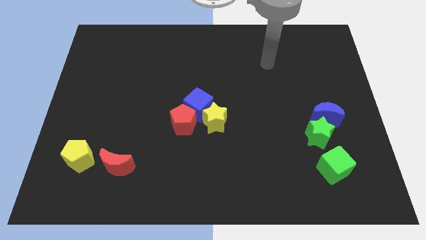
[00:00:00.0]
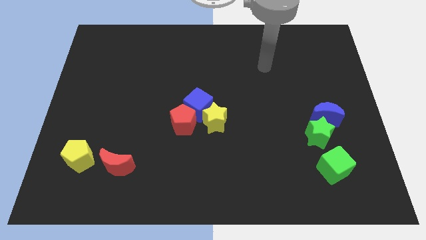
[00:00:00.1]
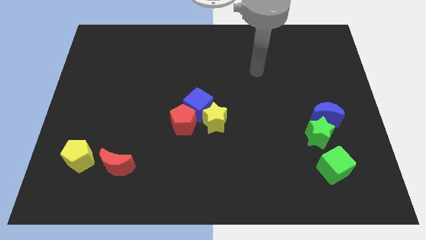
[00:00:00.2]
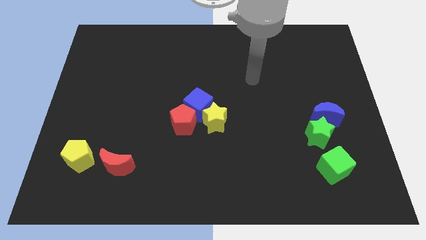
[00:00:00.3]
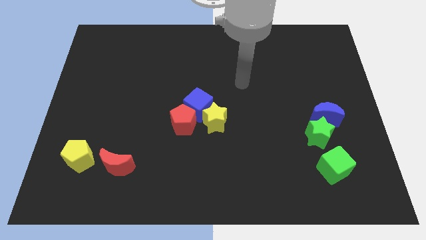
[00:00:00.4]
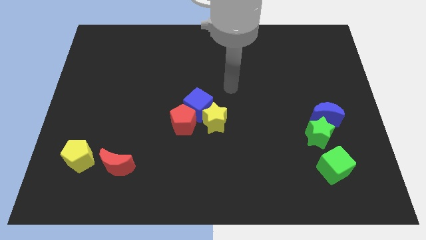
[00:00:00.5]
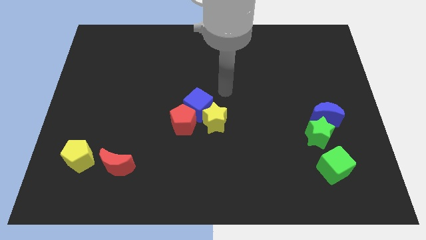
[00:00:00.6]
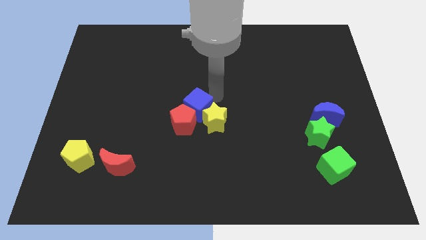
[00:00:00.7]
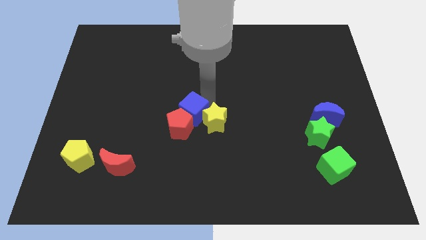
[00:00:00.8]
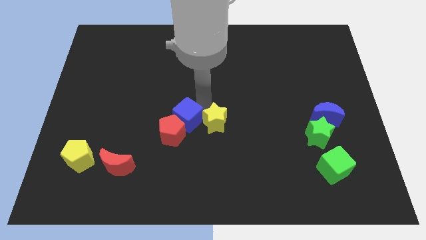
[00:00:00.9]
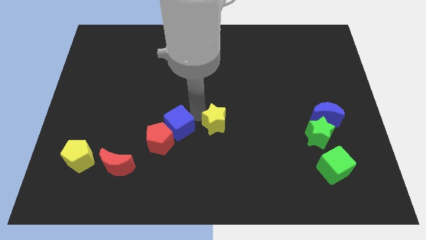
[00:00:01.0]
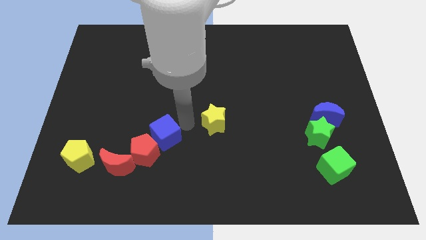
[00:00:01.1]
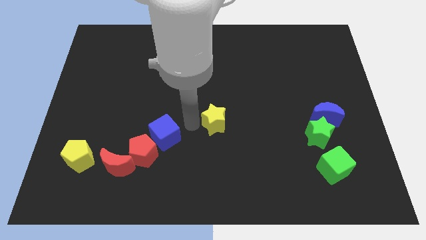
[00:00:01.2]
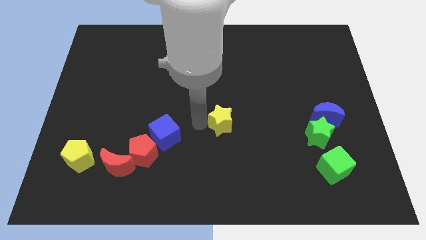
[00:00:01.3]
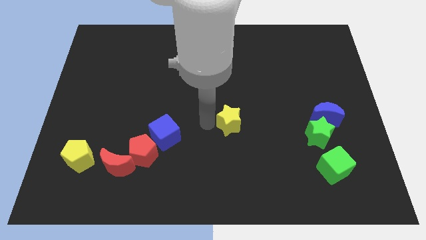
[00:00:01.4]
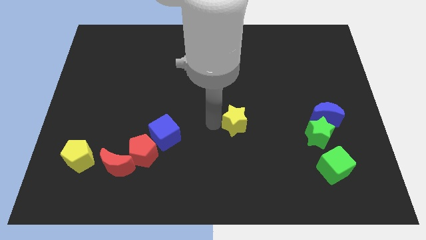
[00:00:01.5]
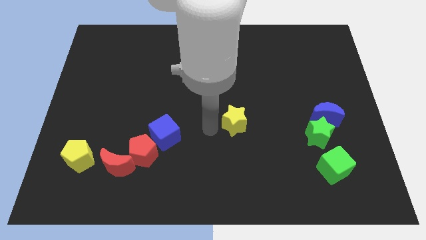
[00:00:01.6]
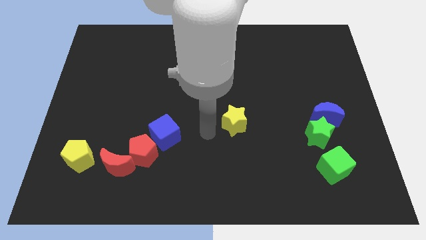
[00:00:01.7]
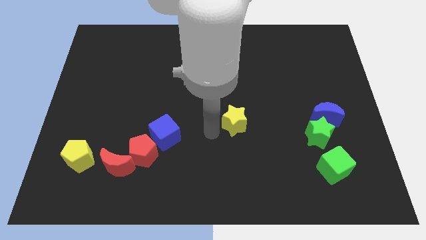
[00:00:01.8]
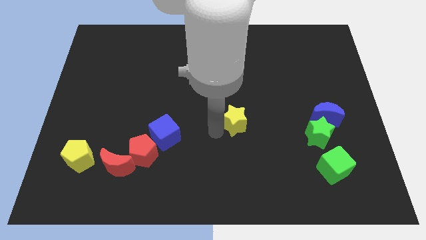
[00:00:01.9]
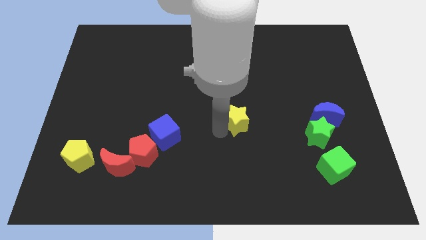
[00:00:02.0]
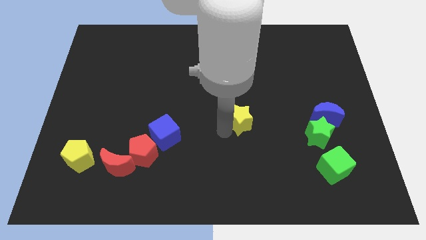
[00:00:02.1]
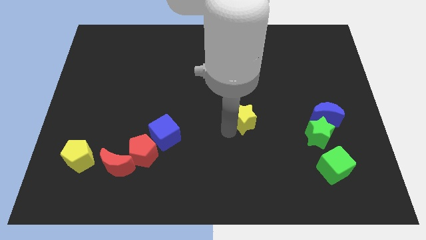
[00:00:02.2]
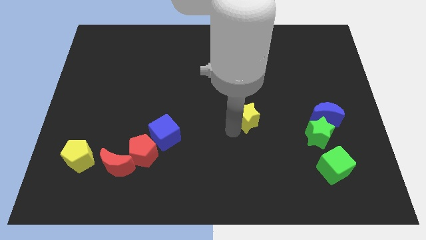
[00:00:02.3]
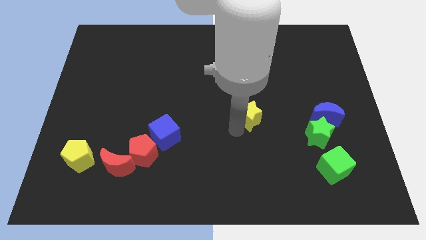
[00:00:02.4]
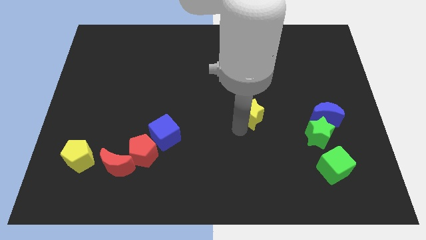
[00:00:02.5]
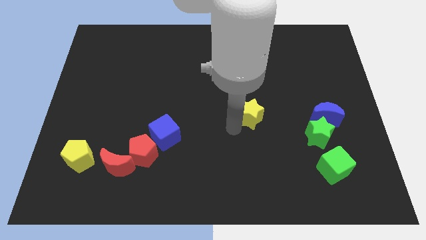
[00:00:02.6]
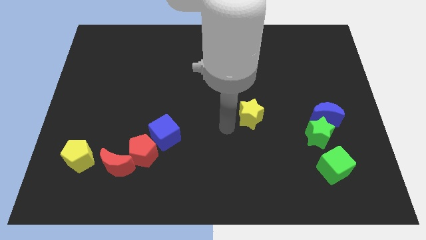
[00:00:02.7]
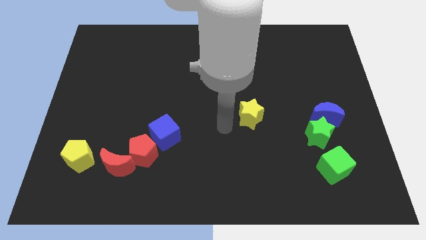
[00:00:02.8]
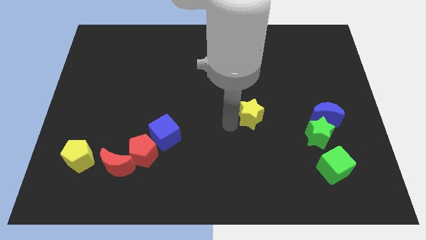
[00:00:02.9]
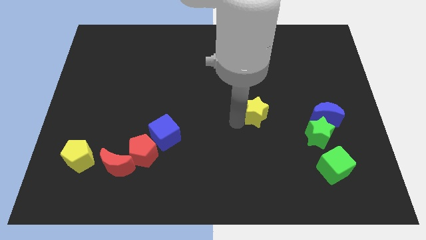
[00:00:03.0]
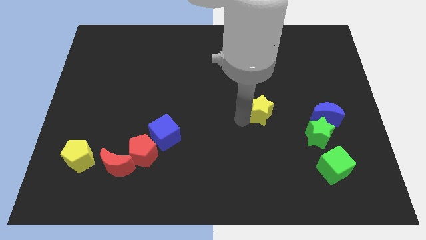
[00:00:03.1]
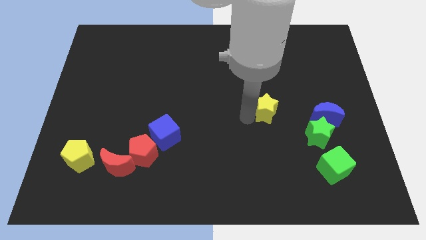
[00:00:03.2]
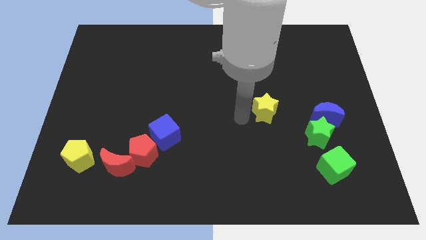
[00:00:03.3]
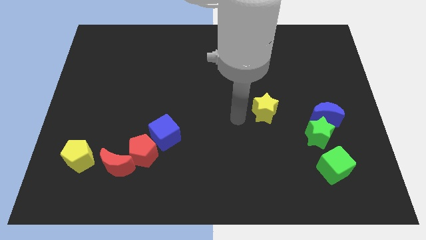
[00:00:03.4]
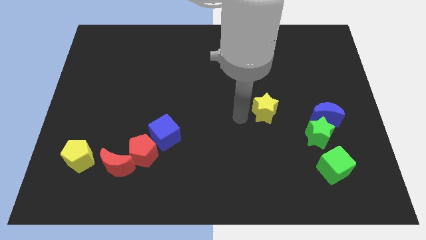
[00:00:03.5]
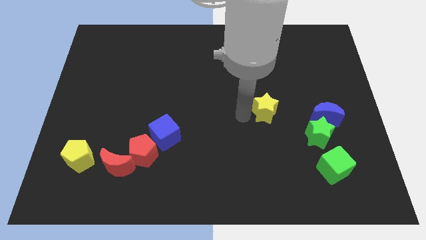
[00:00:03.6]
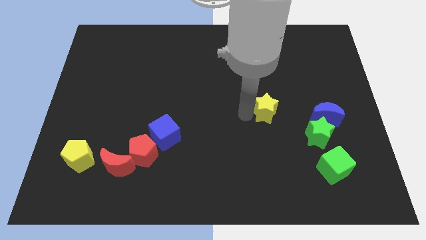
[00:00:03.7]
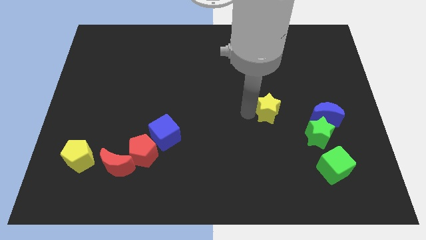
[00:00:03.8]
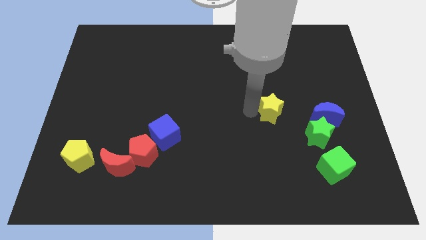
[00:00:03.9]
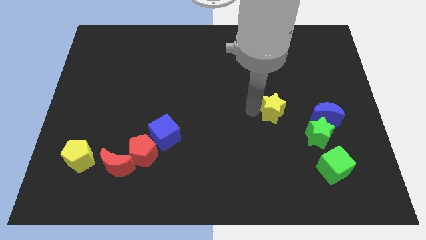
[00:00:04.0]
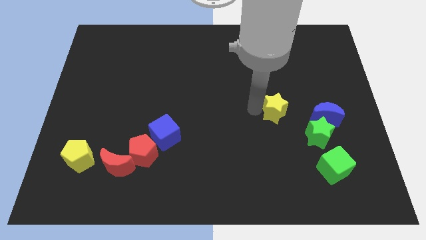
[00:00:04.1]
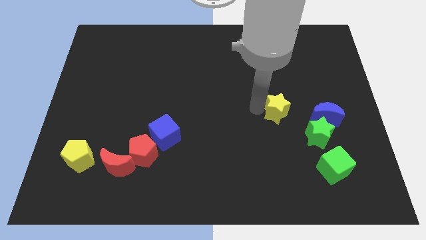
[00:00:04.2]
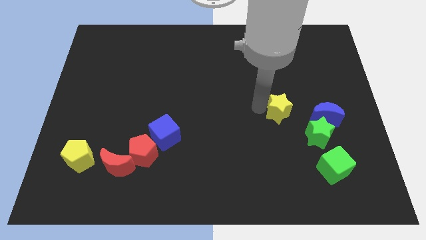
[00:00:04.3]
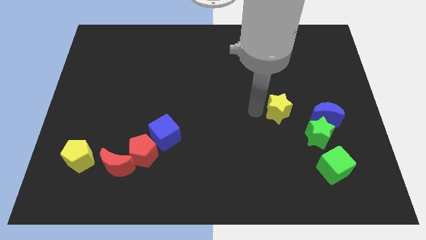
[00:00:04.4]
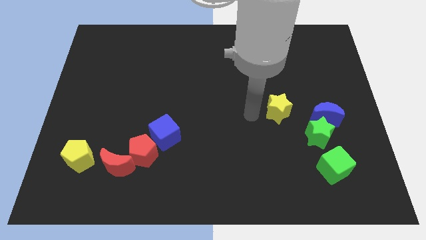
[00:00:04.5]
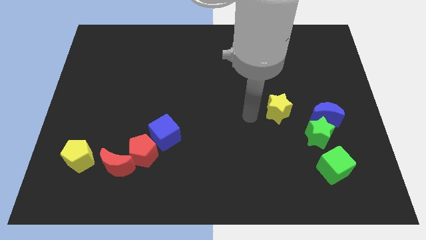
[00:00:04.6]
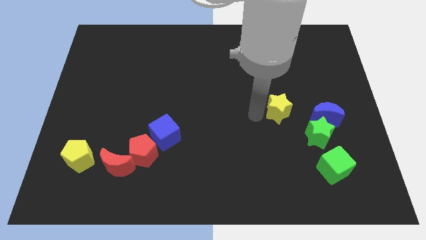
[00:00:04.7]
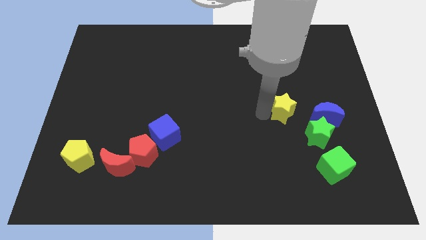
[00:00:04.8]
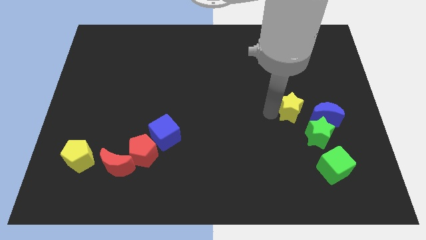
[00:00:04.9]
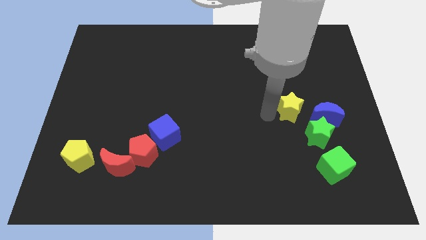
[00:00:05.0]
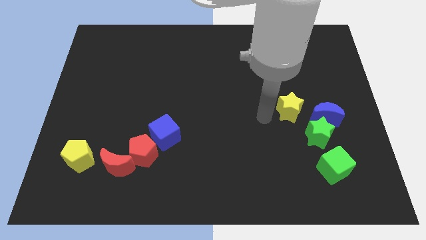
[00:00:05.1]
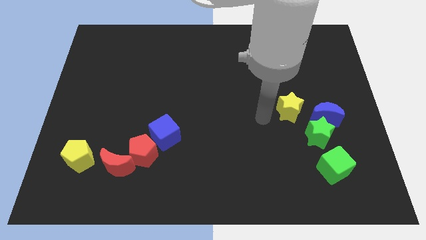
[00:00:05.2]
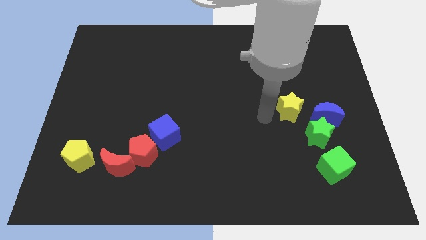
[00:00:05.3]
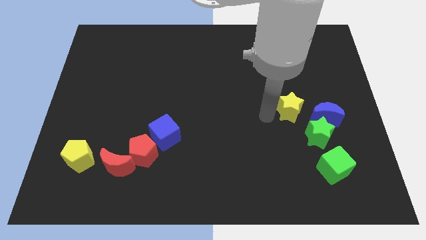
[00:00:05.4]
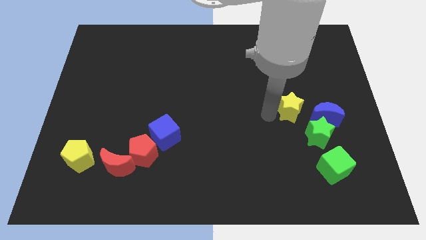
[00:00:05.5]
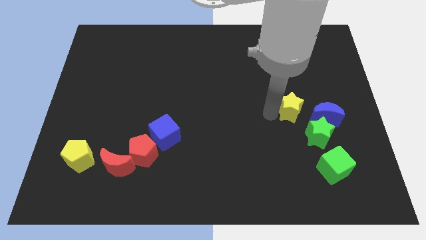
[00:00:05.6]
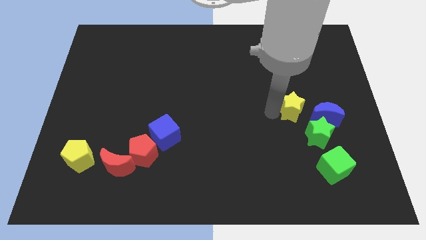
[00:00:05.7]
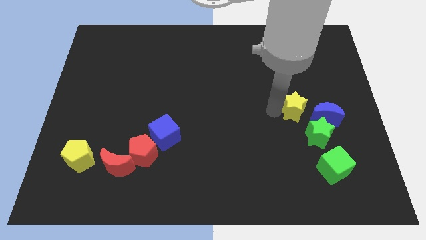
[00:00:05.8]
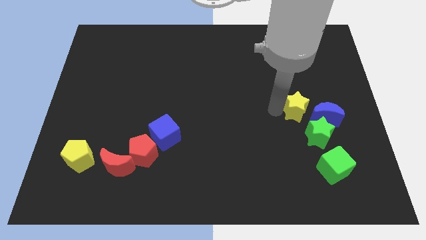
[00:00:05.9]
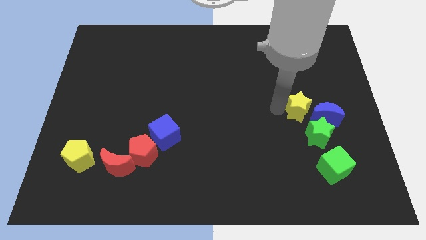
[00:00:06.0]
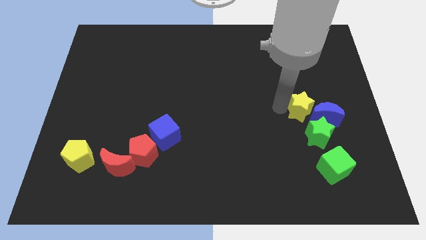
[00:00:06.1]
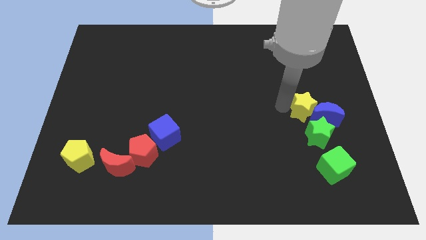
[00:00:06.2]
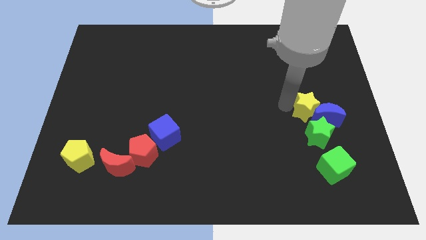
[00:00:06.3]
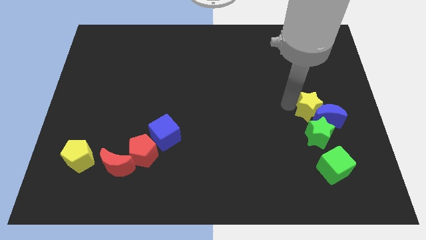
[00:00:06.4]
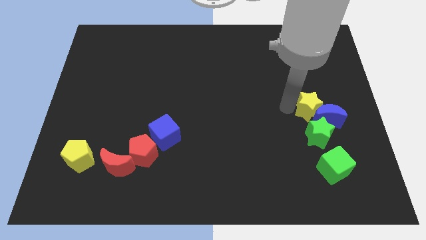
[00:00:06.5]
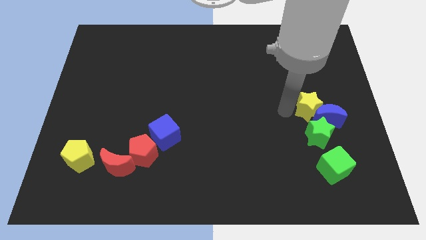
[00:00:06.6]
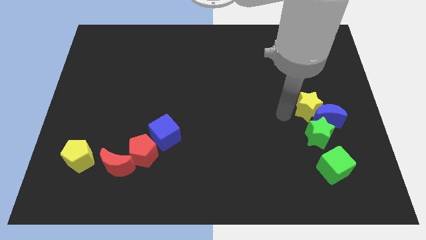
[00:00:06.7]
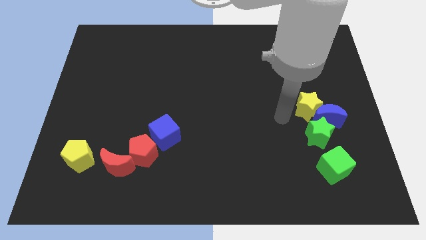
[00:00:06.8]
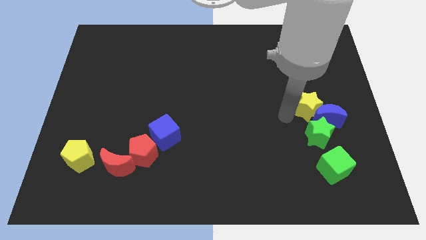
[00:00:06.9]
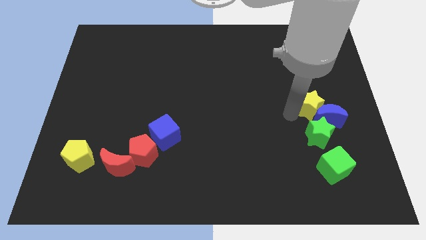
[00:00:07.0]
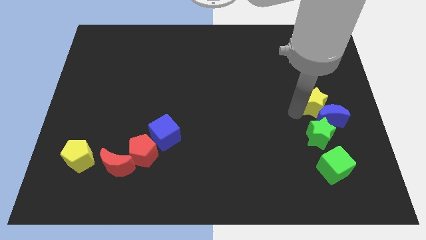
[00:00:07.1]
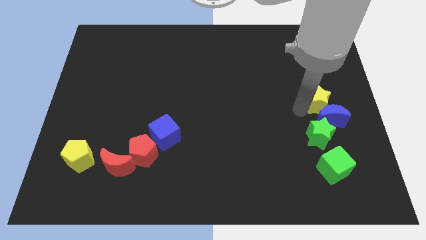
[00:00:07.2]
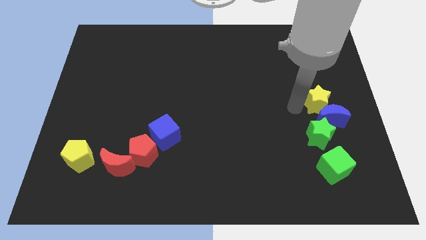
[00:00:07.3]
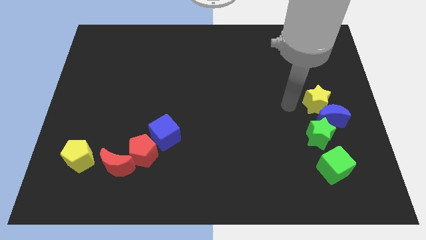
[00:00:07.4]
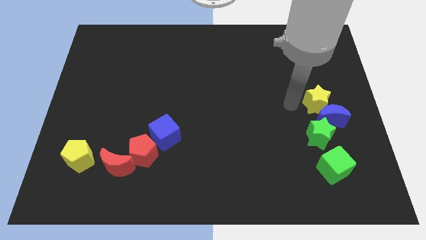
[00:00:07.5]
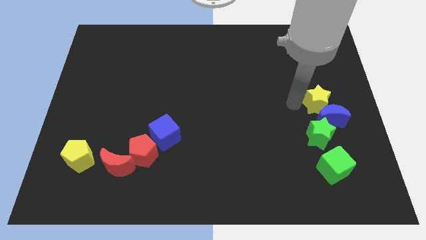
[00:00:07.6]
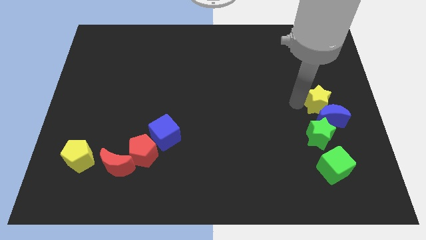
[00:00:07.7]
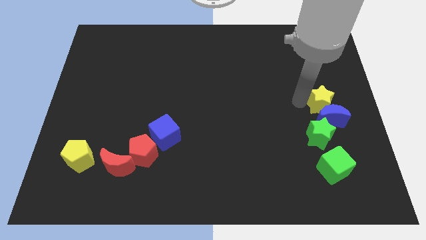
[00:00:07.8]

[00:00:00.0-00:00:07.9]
push the yellow star to the right side of the board
